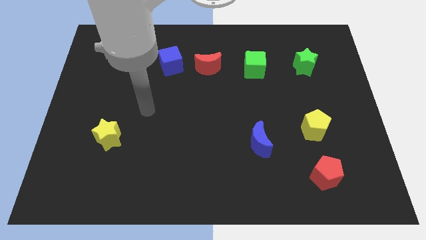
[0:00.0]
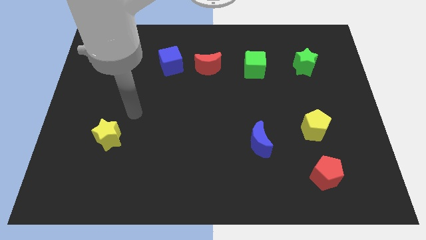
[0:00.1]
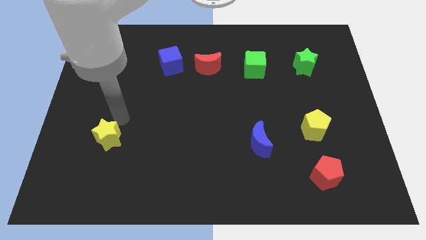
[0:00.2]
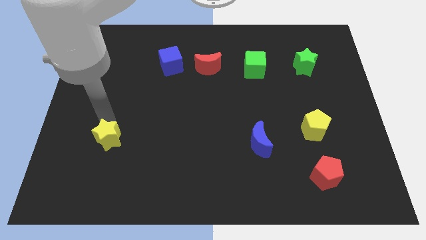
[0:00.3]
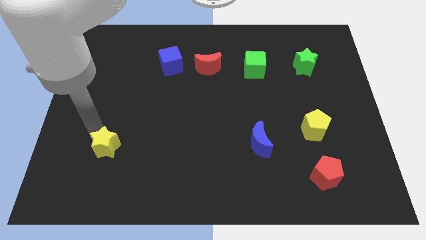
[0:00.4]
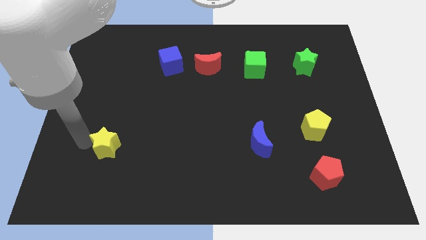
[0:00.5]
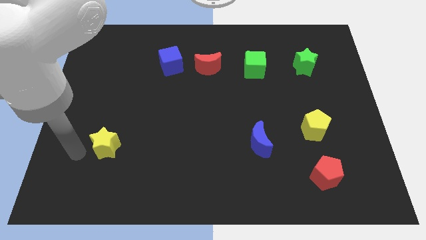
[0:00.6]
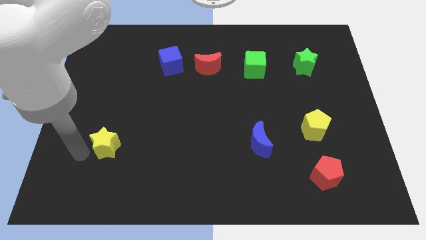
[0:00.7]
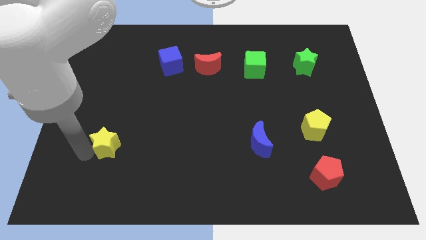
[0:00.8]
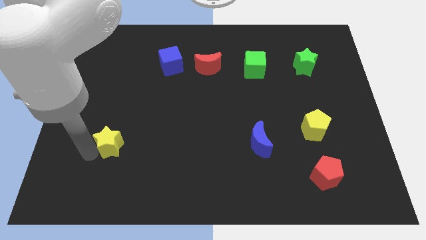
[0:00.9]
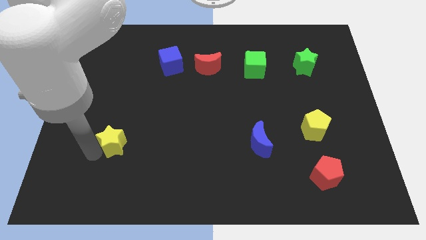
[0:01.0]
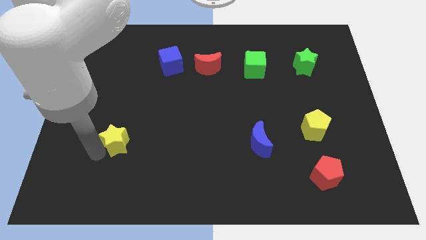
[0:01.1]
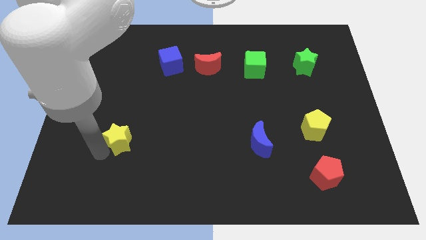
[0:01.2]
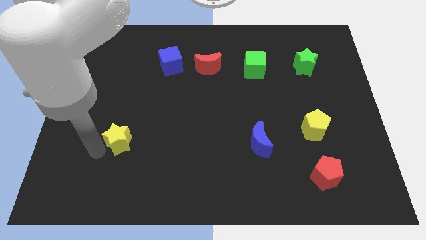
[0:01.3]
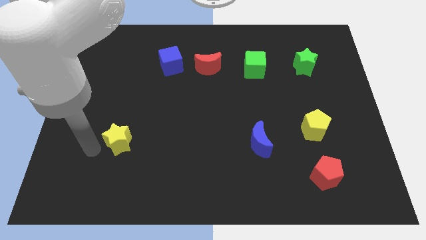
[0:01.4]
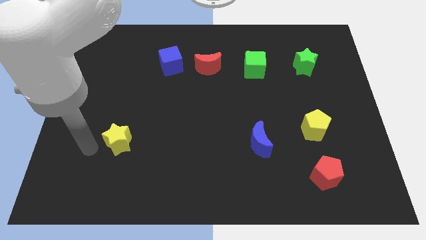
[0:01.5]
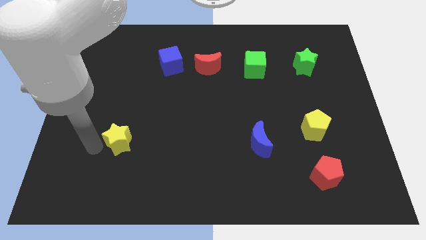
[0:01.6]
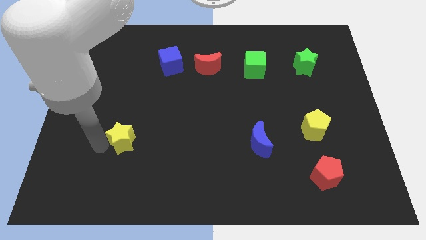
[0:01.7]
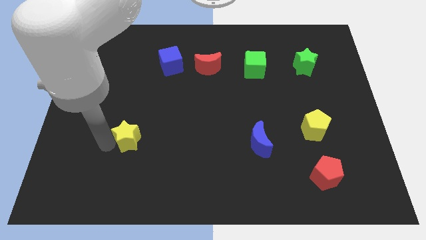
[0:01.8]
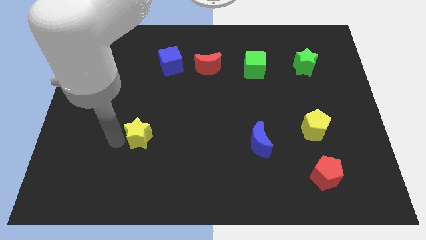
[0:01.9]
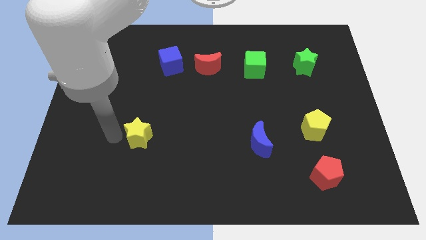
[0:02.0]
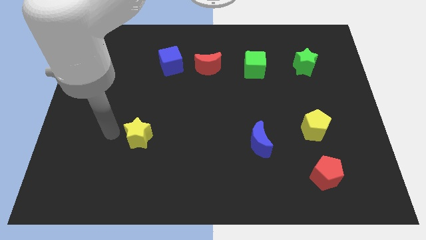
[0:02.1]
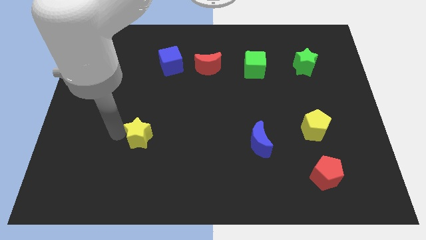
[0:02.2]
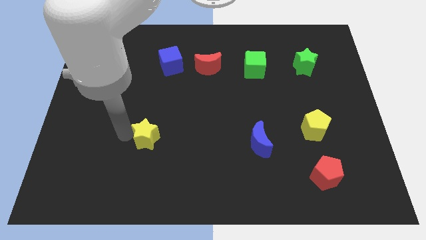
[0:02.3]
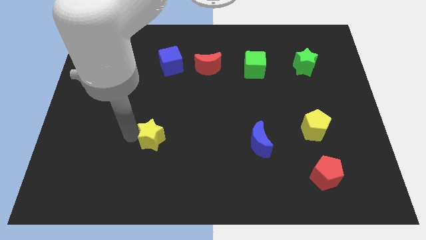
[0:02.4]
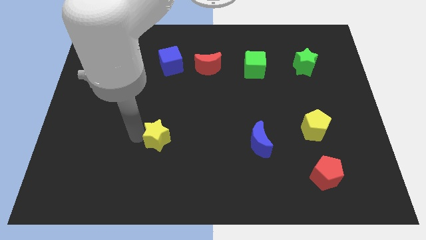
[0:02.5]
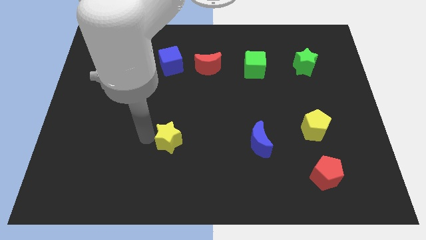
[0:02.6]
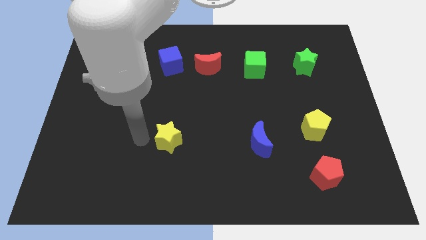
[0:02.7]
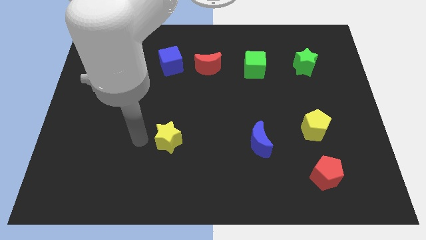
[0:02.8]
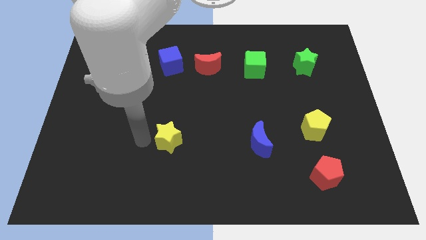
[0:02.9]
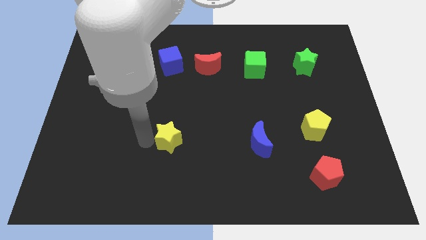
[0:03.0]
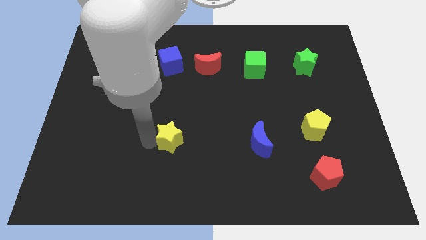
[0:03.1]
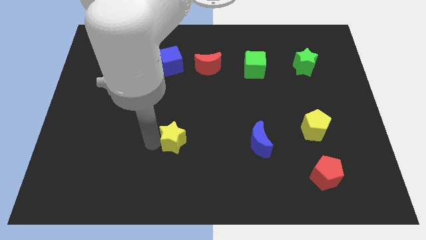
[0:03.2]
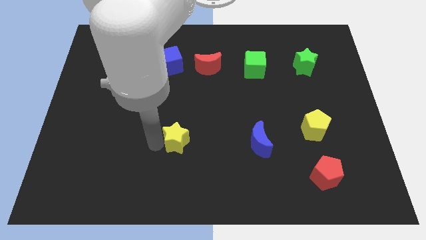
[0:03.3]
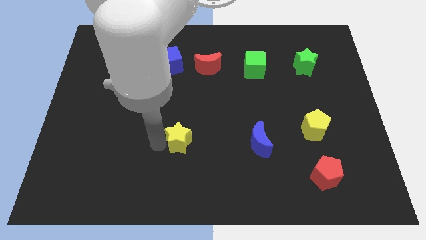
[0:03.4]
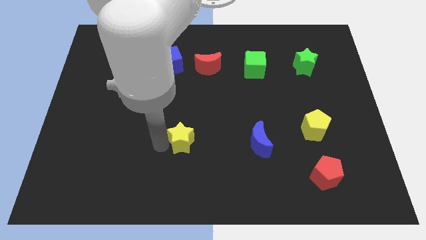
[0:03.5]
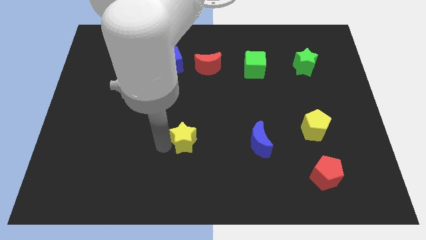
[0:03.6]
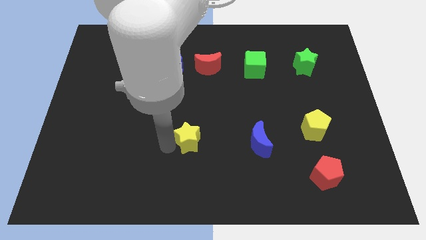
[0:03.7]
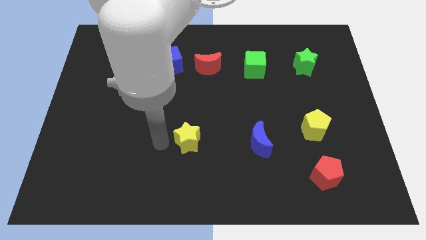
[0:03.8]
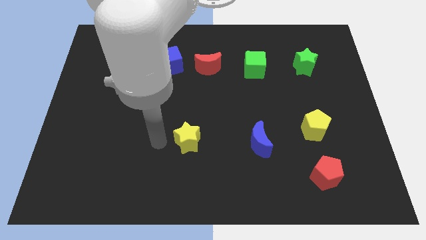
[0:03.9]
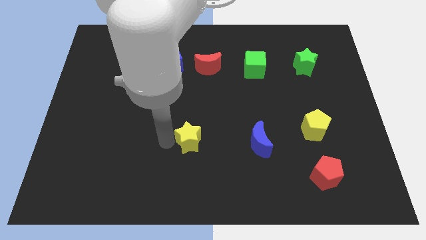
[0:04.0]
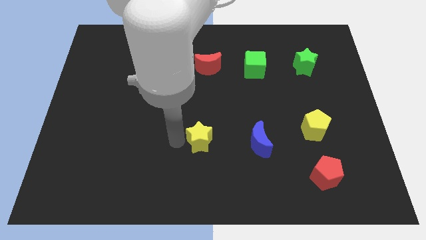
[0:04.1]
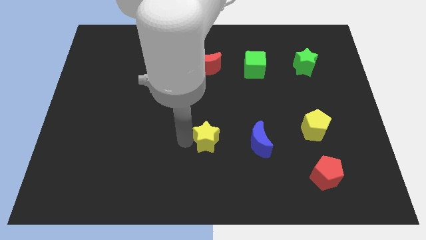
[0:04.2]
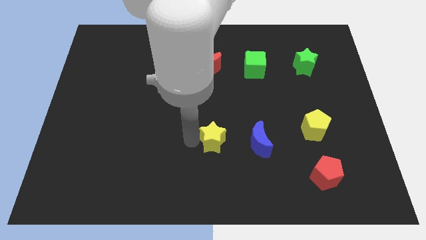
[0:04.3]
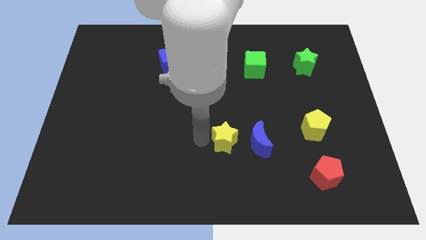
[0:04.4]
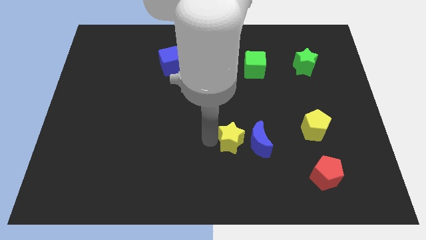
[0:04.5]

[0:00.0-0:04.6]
put the yellow star to the blue moon

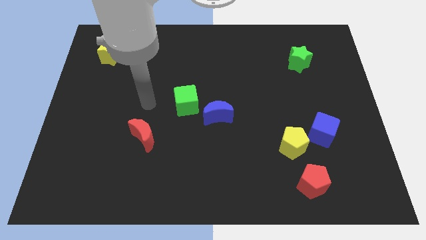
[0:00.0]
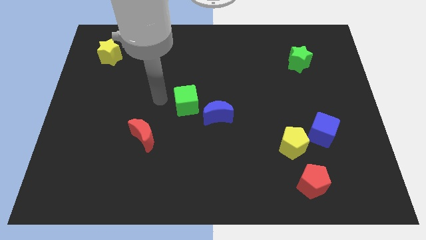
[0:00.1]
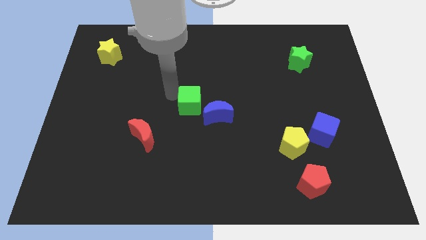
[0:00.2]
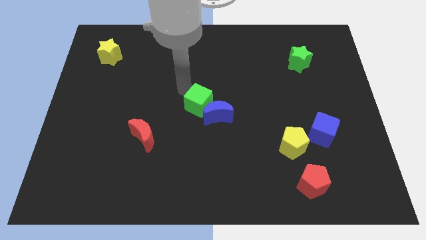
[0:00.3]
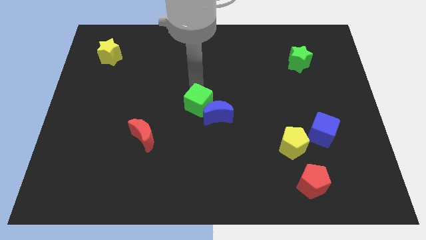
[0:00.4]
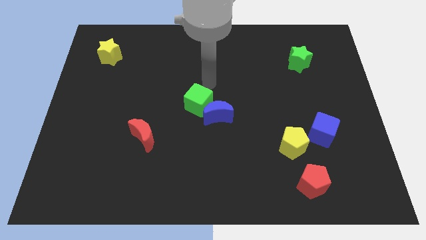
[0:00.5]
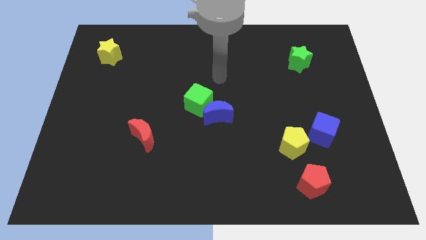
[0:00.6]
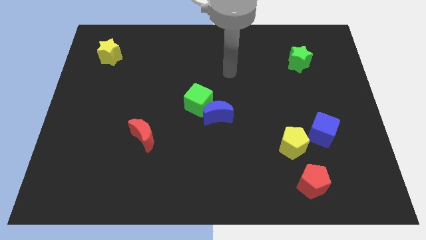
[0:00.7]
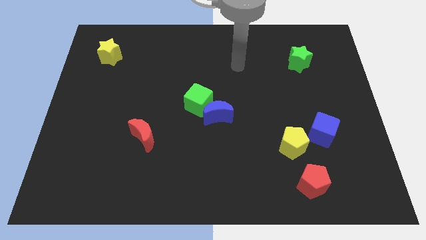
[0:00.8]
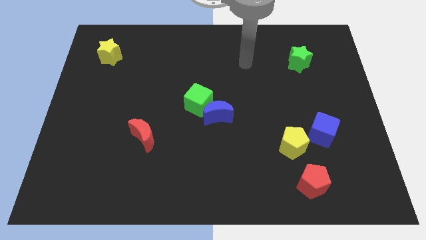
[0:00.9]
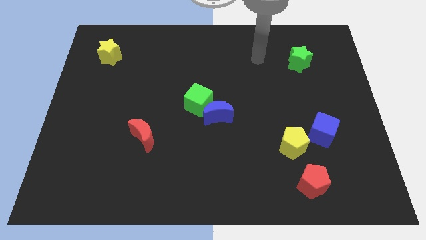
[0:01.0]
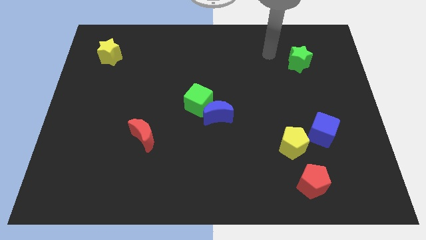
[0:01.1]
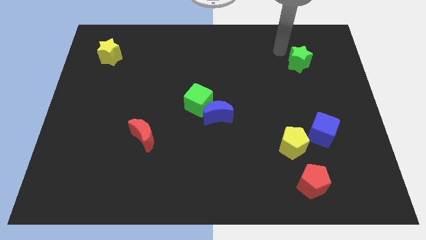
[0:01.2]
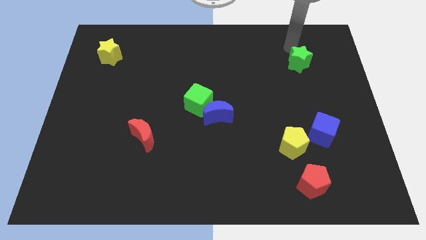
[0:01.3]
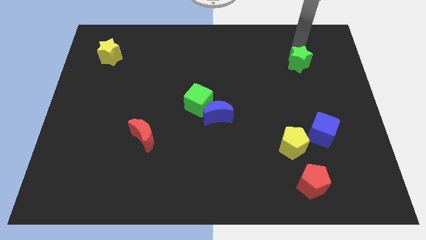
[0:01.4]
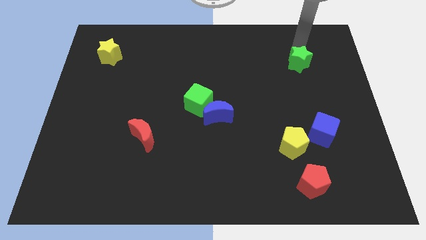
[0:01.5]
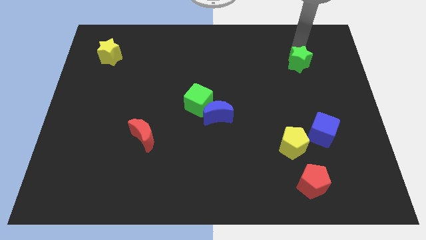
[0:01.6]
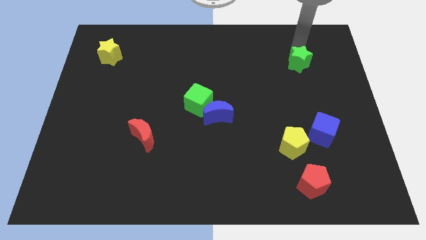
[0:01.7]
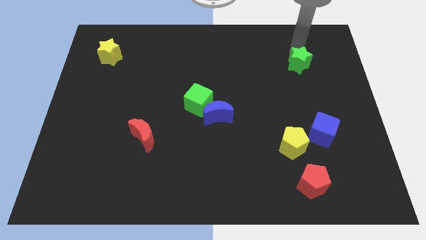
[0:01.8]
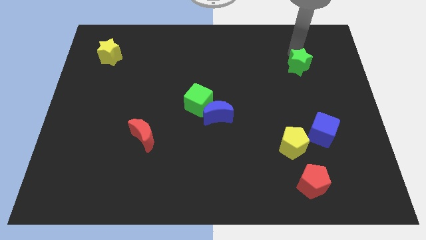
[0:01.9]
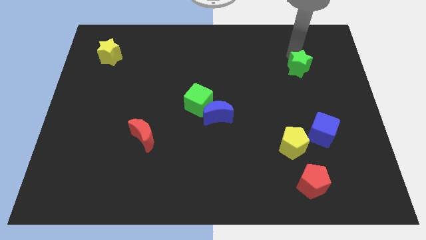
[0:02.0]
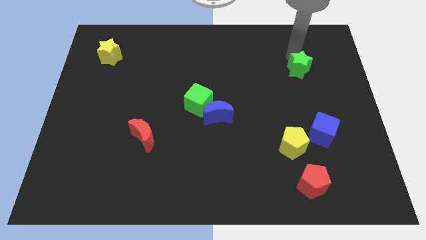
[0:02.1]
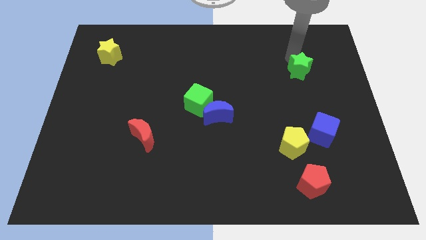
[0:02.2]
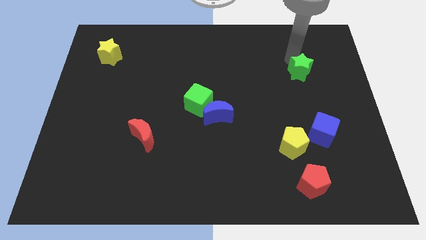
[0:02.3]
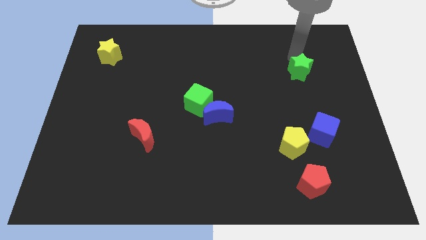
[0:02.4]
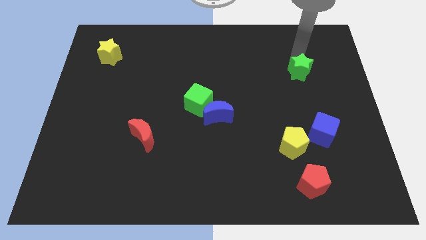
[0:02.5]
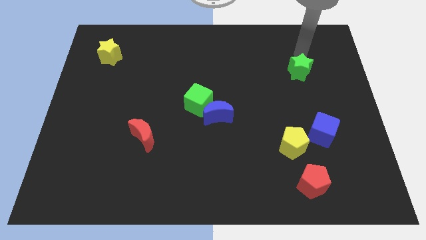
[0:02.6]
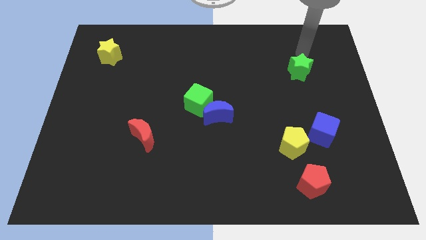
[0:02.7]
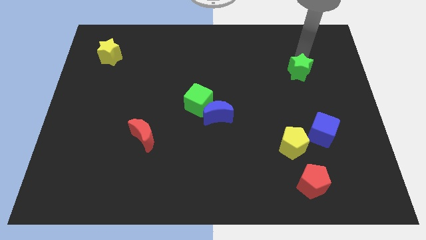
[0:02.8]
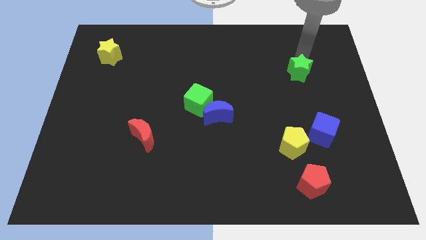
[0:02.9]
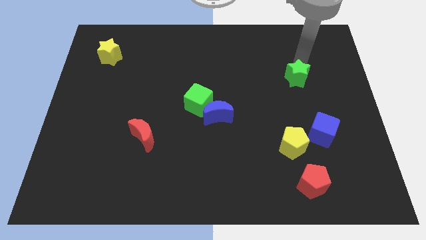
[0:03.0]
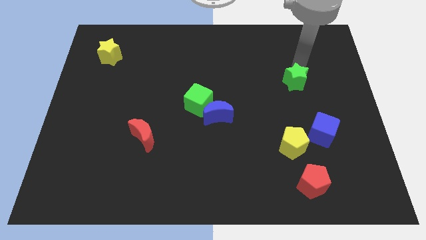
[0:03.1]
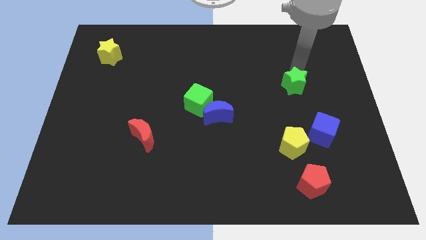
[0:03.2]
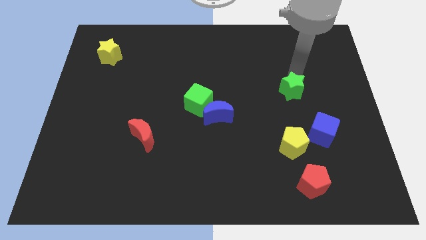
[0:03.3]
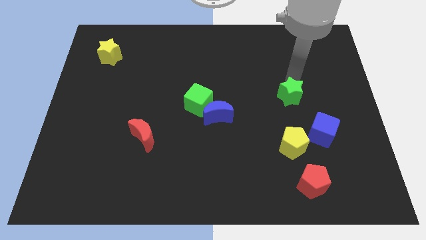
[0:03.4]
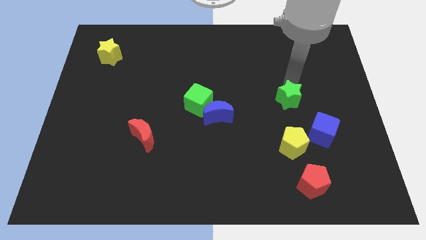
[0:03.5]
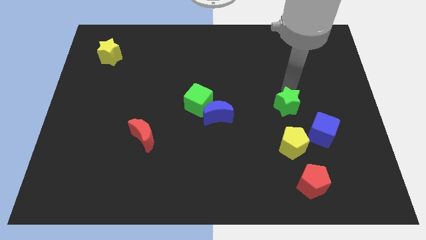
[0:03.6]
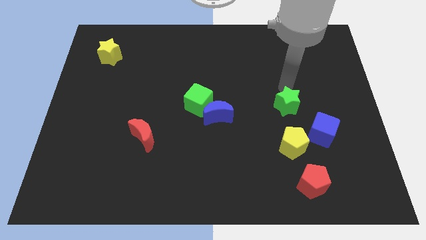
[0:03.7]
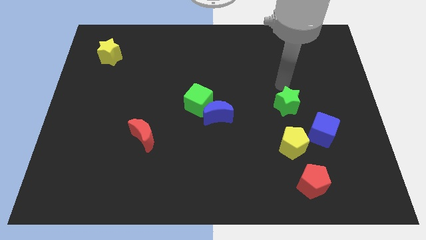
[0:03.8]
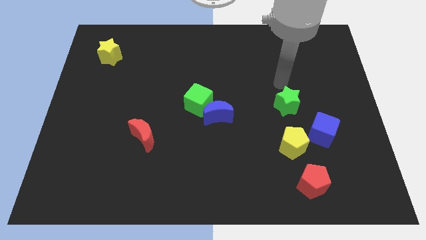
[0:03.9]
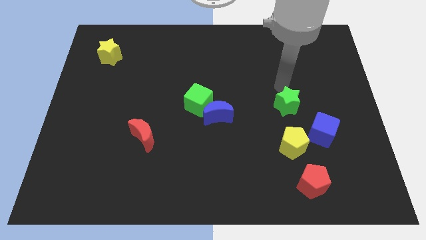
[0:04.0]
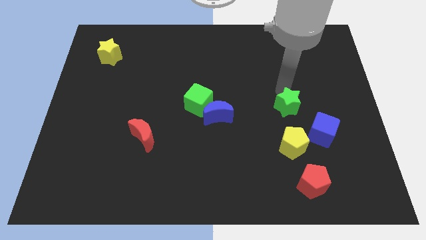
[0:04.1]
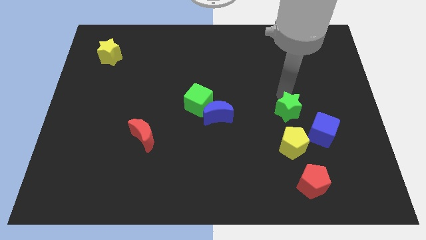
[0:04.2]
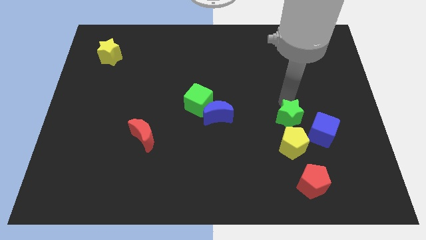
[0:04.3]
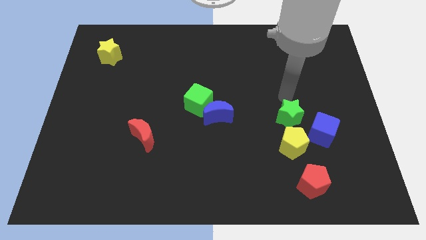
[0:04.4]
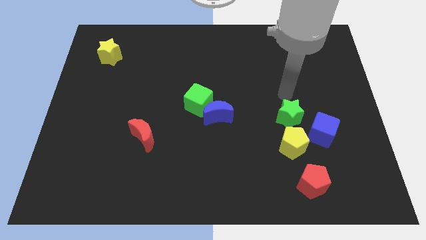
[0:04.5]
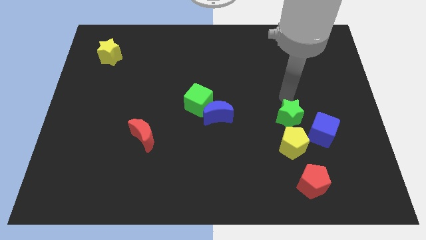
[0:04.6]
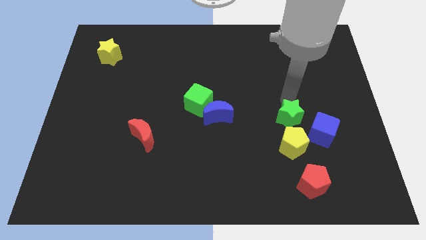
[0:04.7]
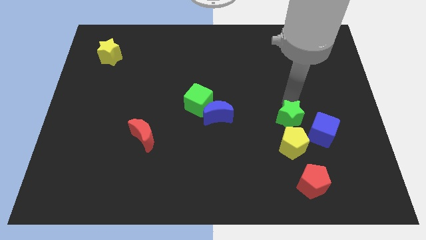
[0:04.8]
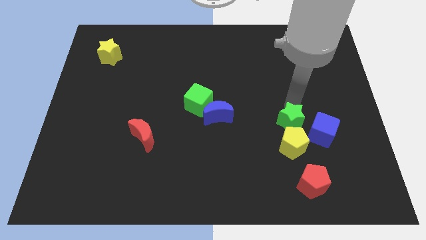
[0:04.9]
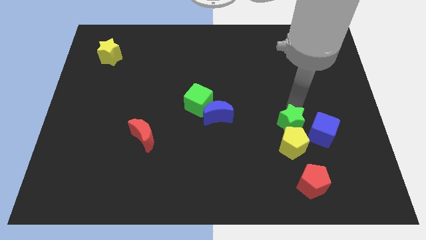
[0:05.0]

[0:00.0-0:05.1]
push the green star next to the yellow pentagon
